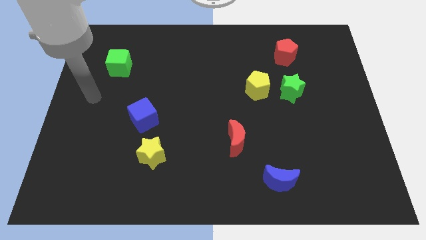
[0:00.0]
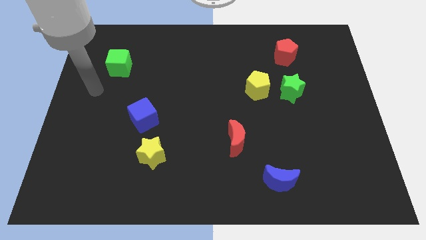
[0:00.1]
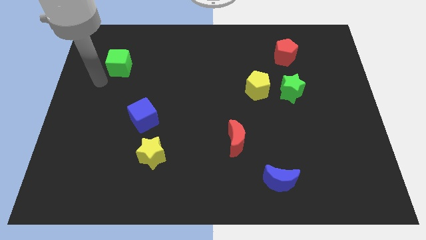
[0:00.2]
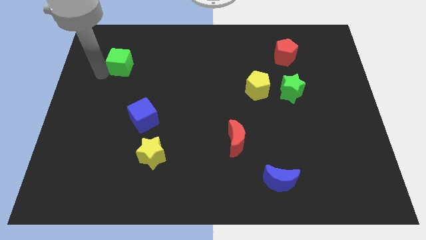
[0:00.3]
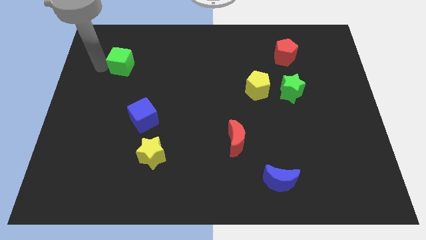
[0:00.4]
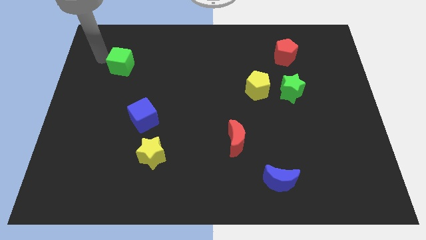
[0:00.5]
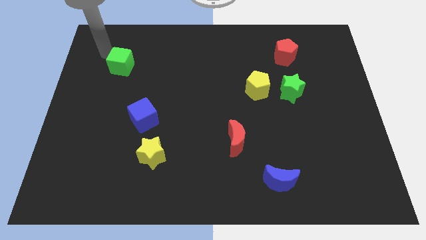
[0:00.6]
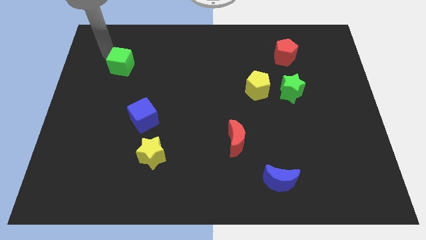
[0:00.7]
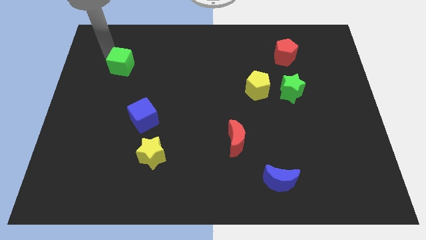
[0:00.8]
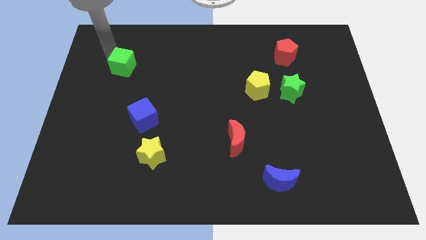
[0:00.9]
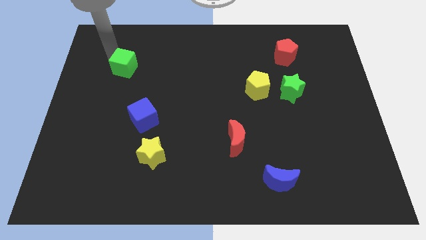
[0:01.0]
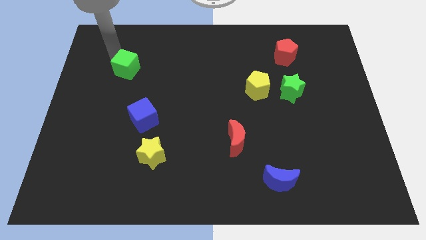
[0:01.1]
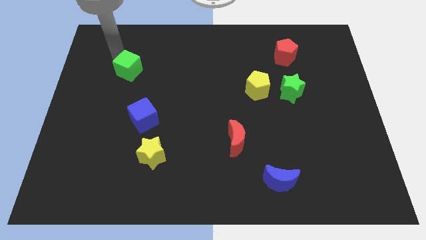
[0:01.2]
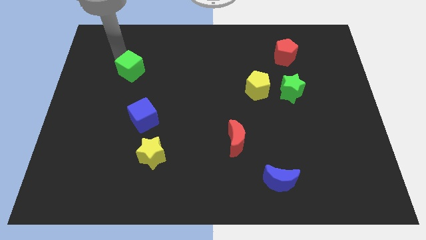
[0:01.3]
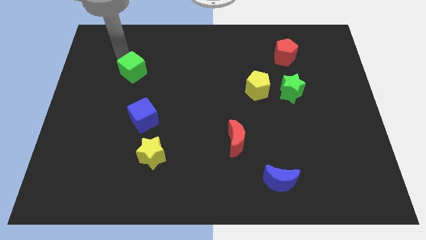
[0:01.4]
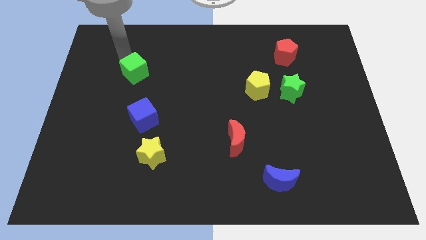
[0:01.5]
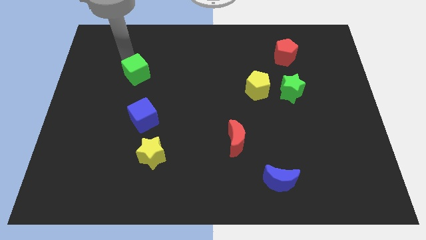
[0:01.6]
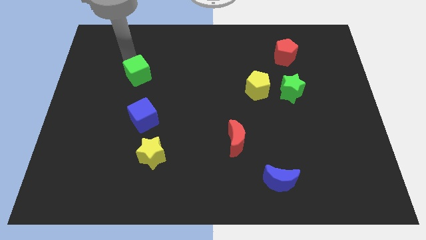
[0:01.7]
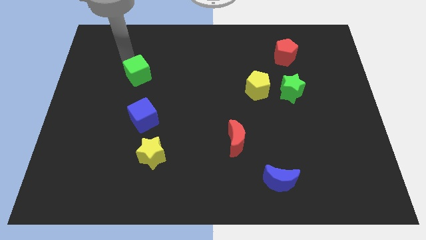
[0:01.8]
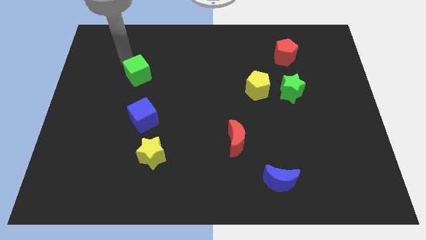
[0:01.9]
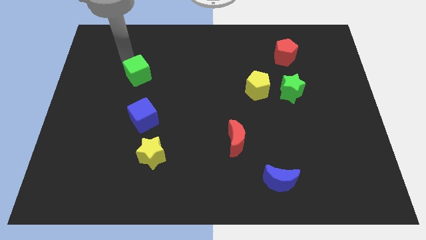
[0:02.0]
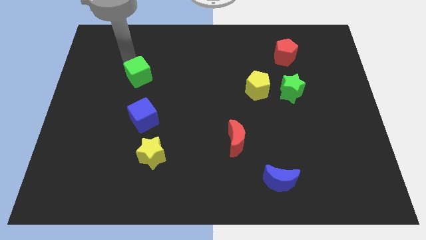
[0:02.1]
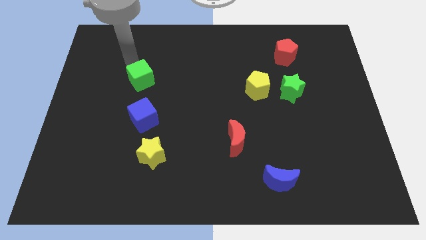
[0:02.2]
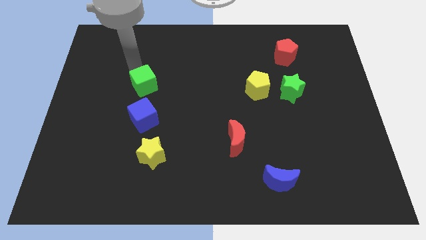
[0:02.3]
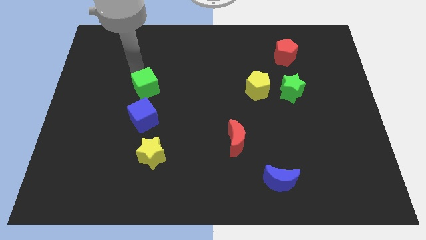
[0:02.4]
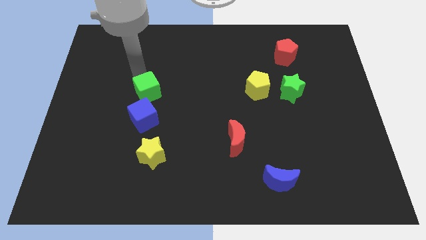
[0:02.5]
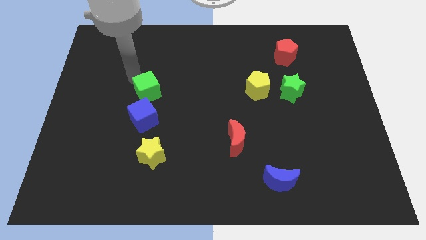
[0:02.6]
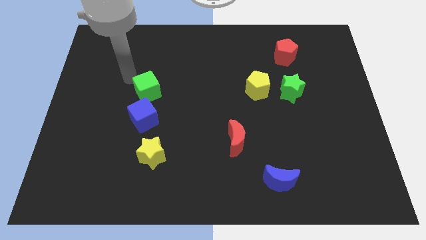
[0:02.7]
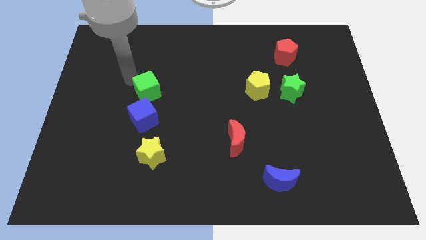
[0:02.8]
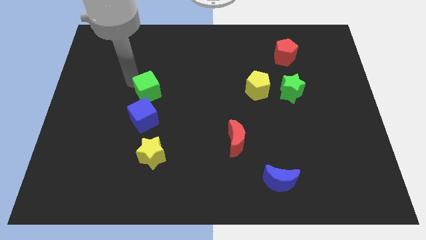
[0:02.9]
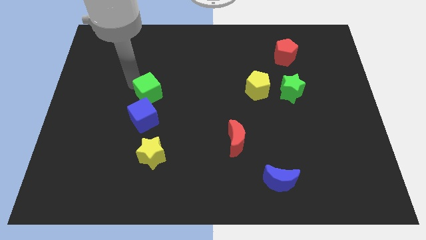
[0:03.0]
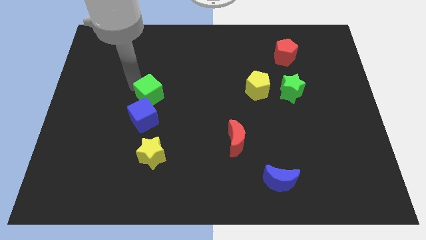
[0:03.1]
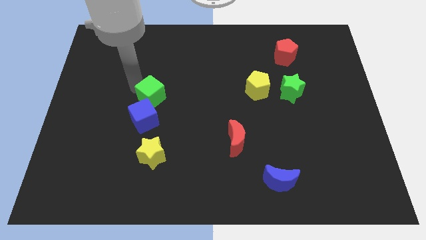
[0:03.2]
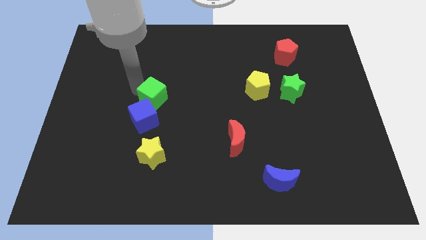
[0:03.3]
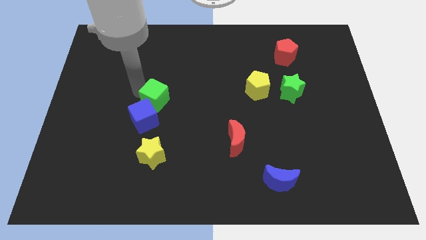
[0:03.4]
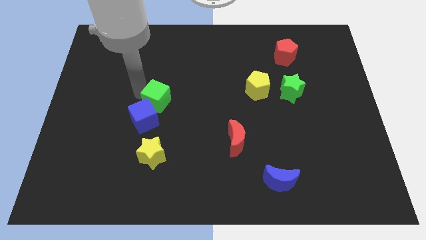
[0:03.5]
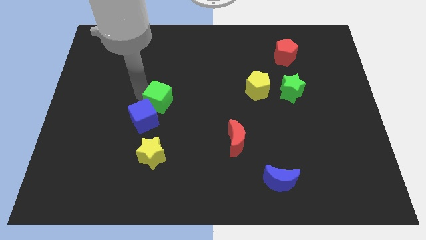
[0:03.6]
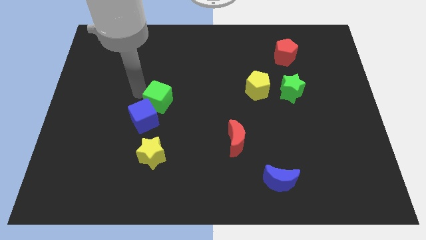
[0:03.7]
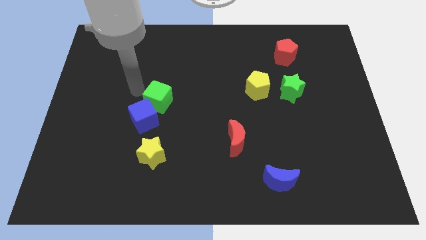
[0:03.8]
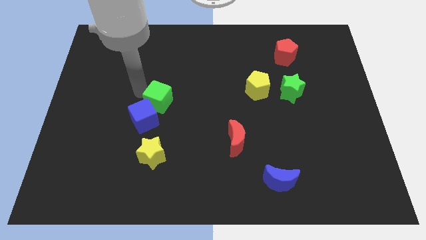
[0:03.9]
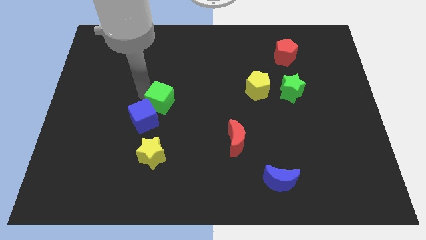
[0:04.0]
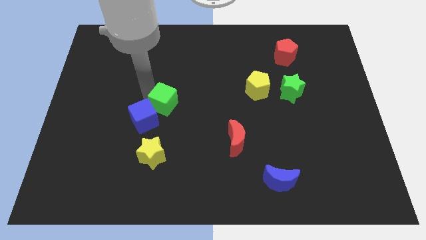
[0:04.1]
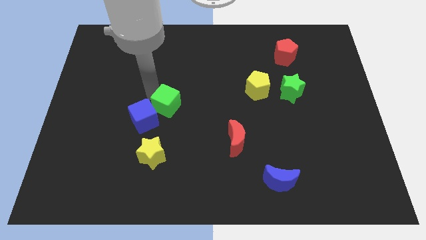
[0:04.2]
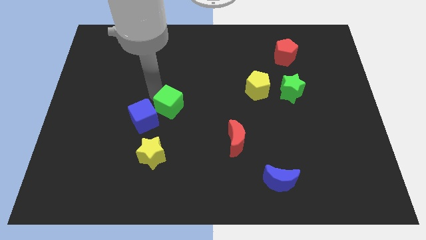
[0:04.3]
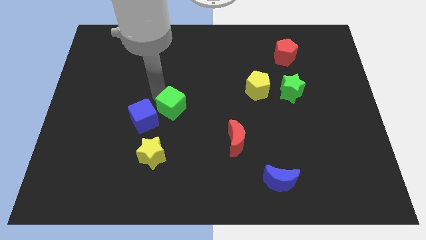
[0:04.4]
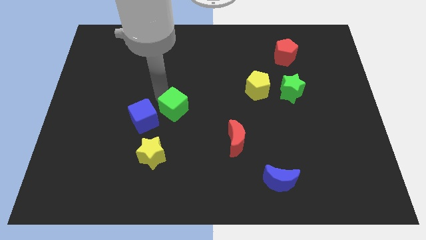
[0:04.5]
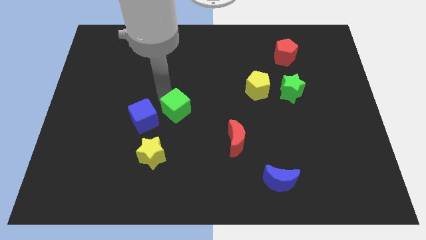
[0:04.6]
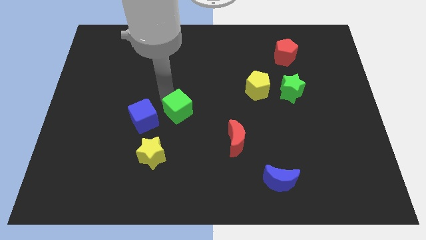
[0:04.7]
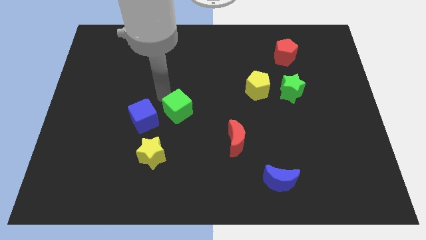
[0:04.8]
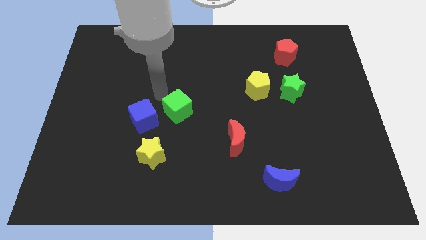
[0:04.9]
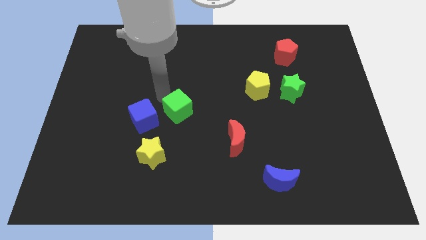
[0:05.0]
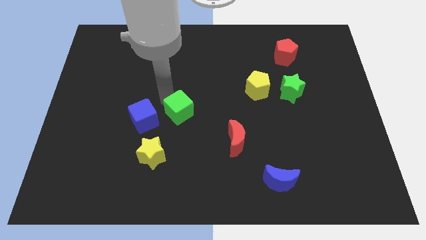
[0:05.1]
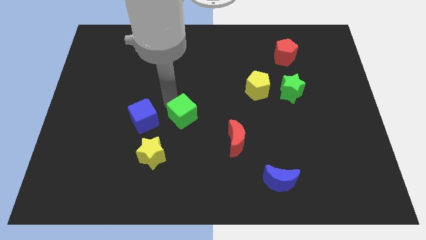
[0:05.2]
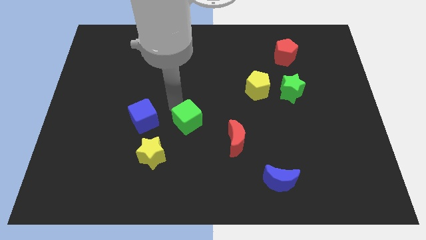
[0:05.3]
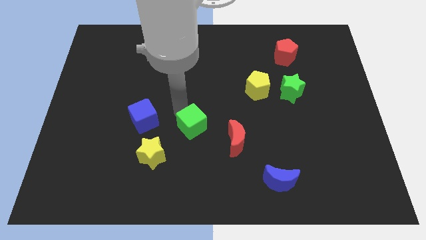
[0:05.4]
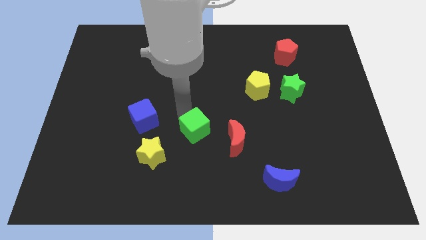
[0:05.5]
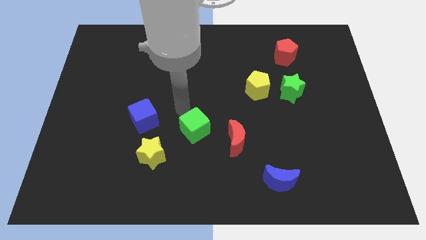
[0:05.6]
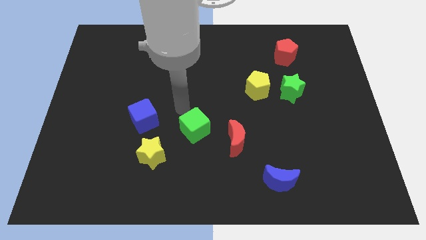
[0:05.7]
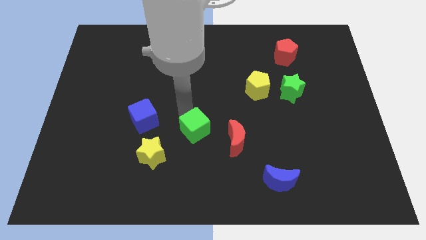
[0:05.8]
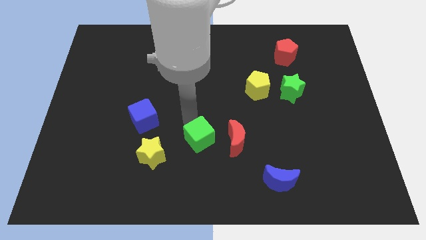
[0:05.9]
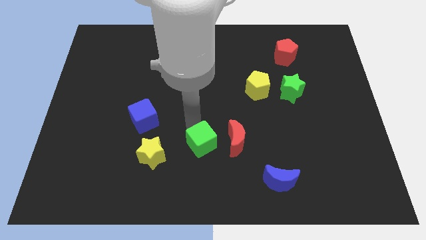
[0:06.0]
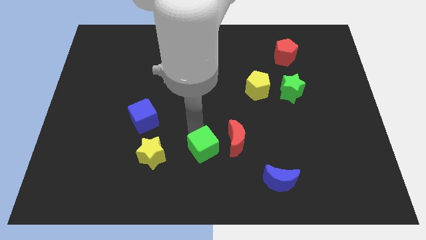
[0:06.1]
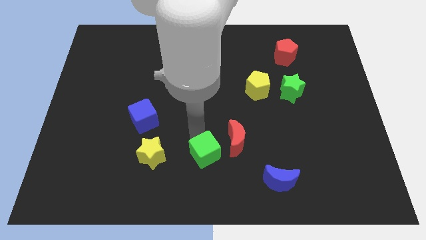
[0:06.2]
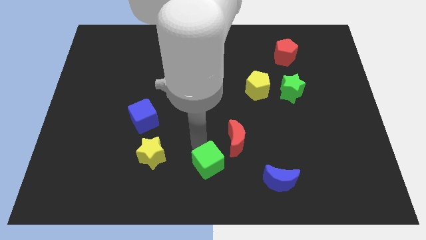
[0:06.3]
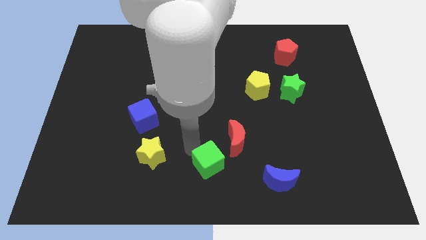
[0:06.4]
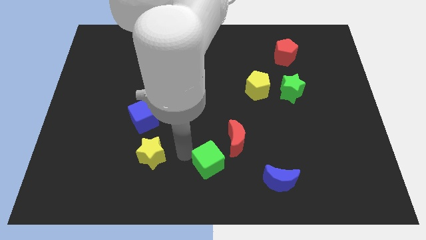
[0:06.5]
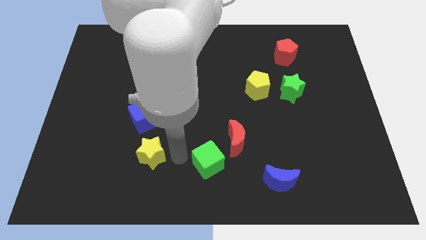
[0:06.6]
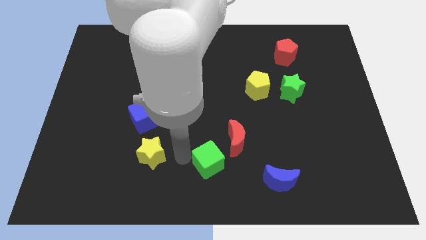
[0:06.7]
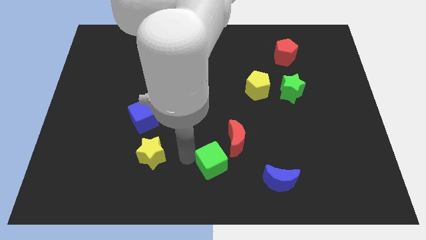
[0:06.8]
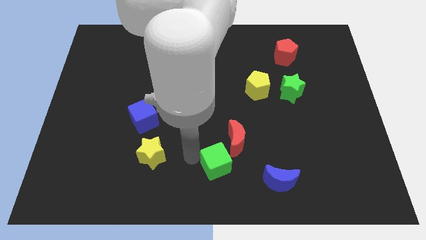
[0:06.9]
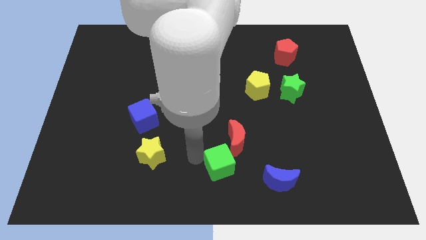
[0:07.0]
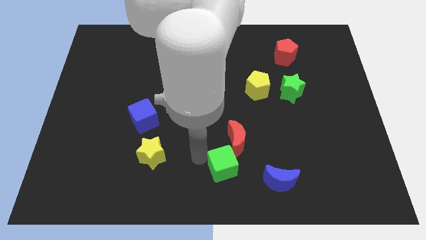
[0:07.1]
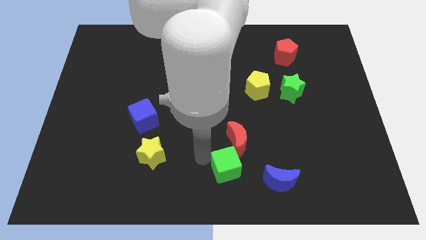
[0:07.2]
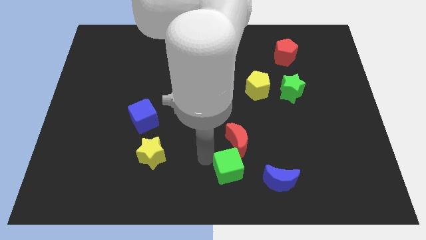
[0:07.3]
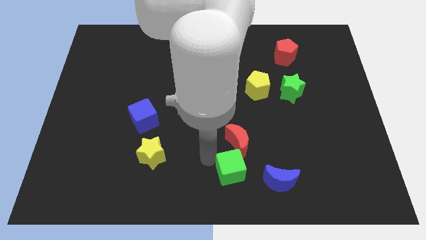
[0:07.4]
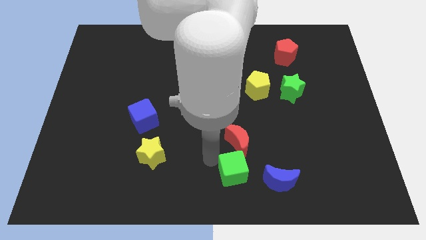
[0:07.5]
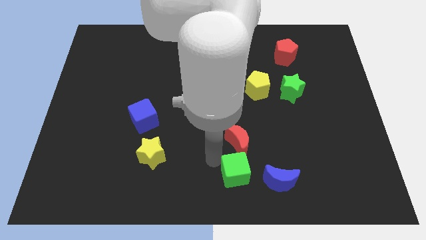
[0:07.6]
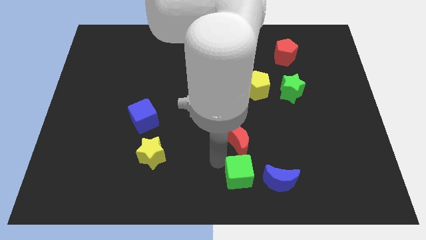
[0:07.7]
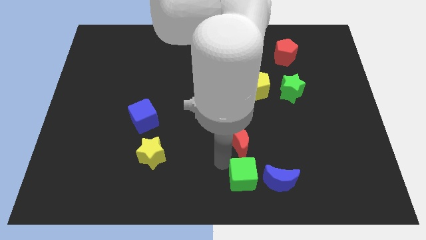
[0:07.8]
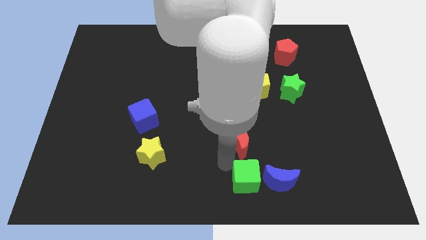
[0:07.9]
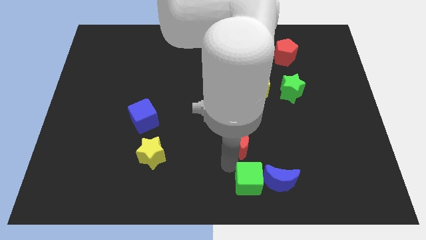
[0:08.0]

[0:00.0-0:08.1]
slide the green cube close to the blue moon
